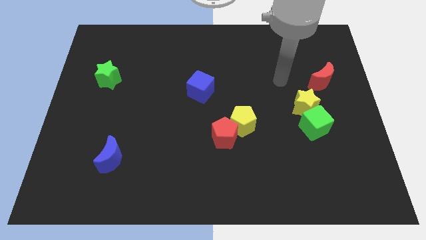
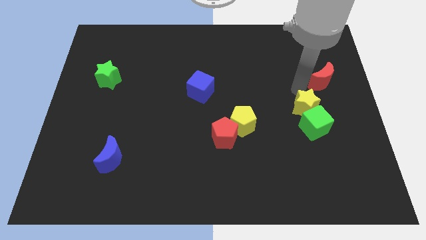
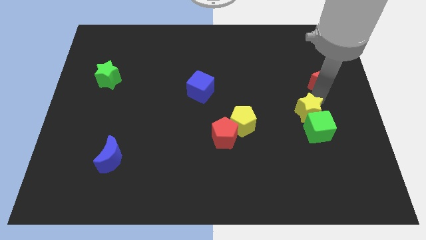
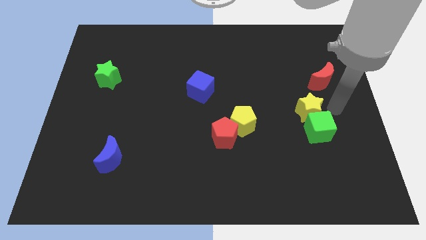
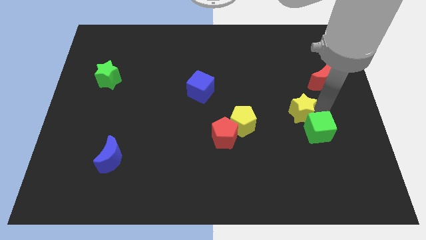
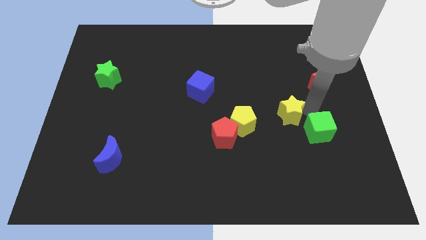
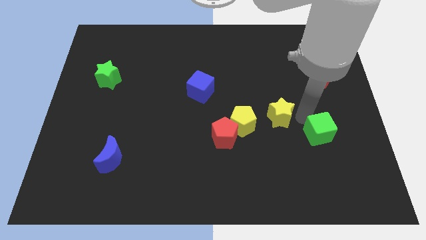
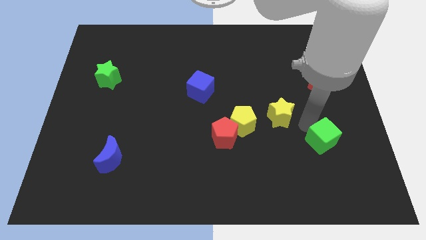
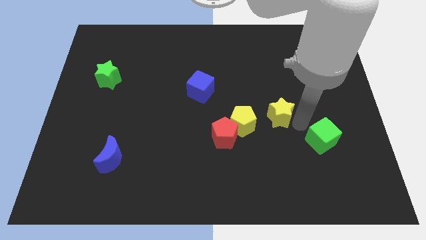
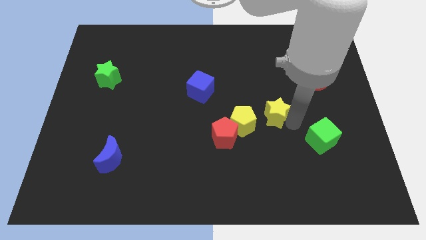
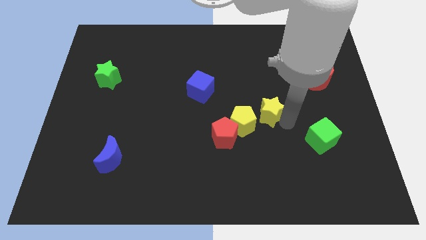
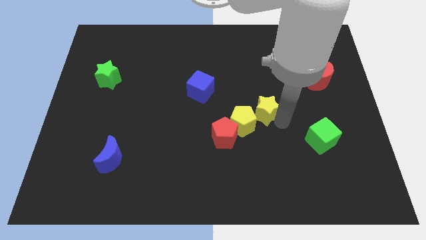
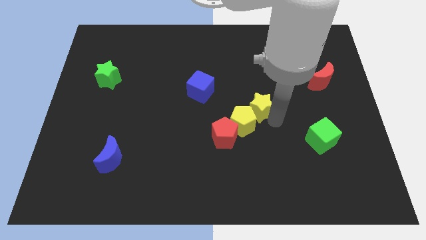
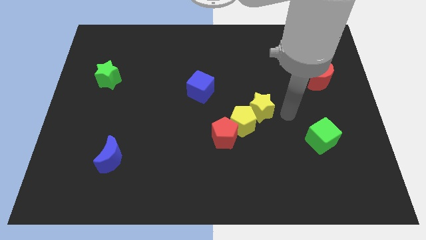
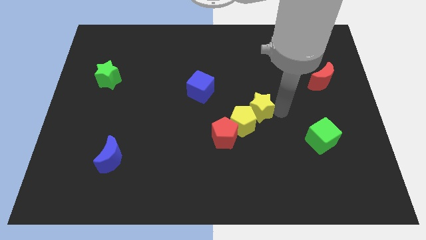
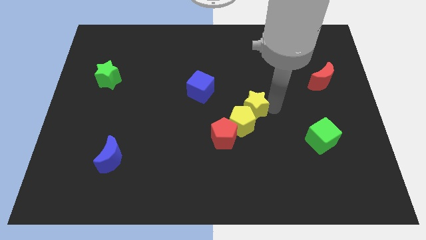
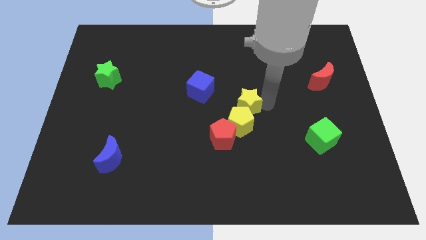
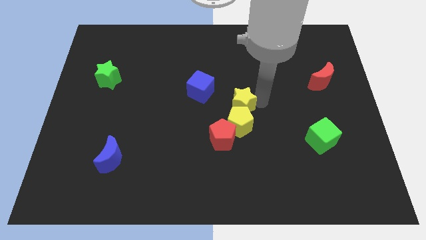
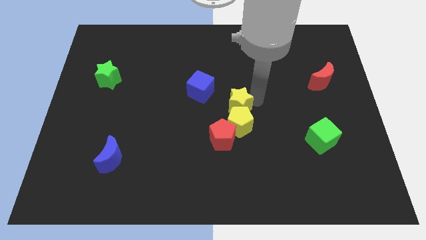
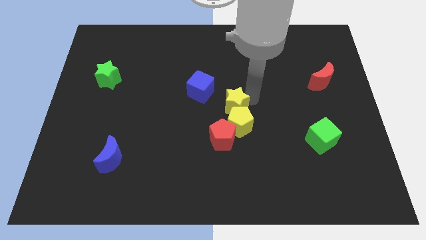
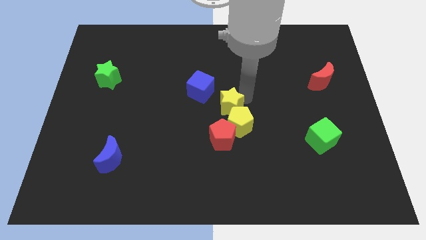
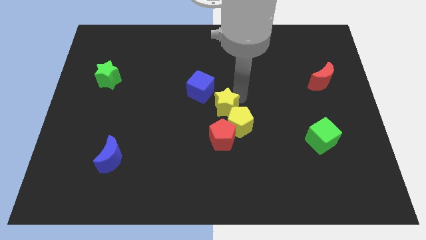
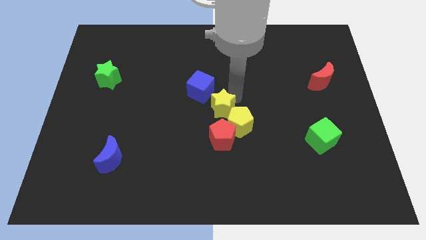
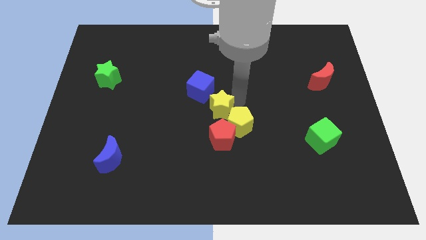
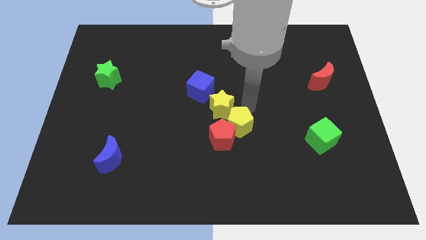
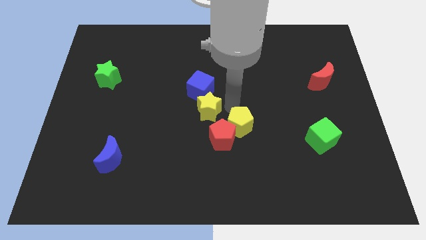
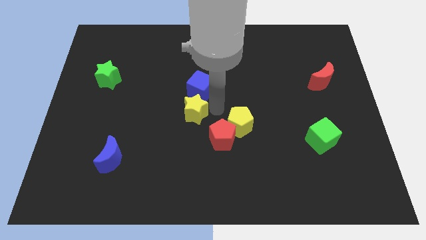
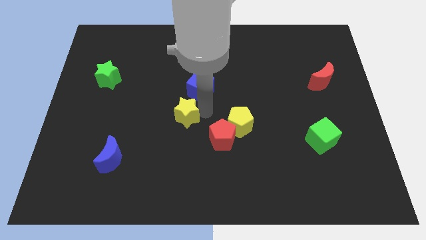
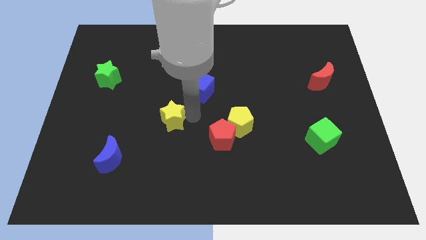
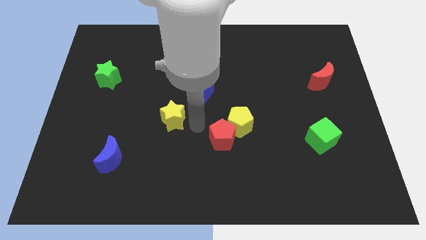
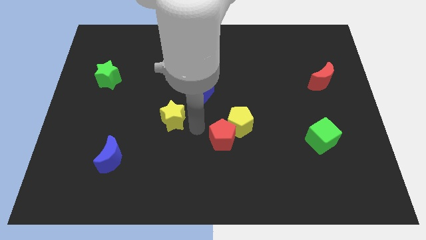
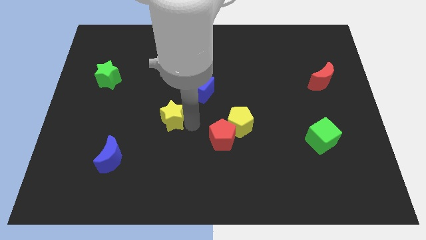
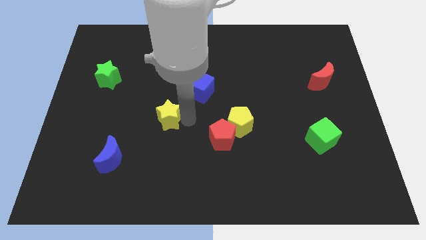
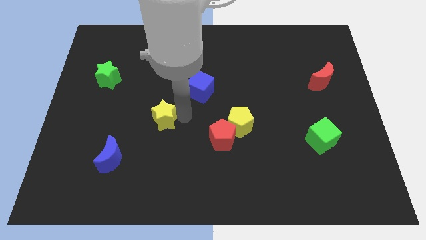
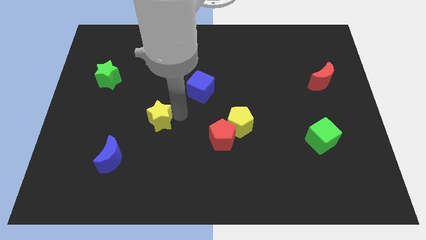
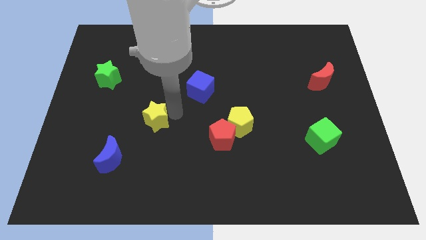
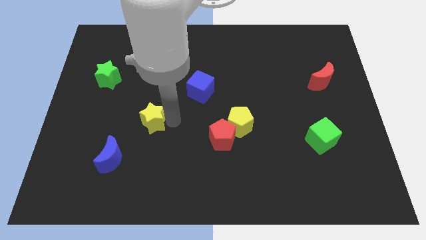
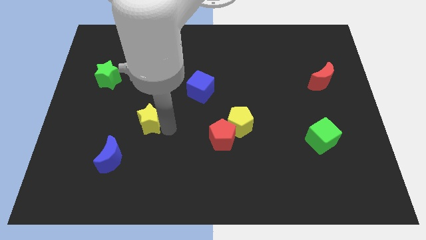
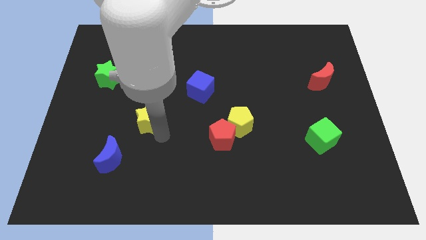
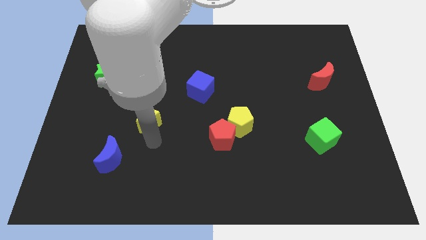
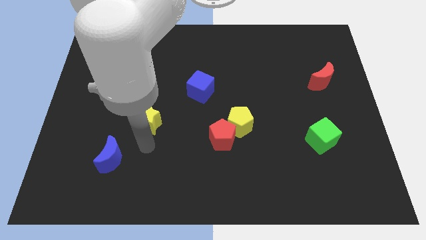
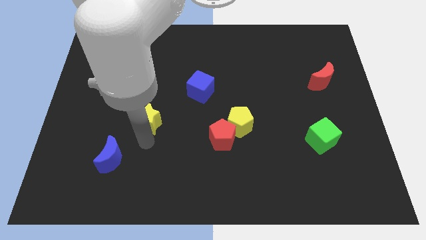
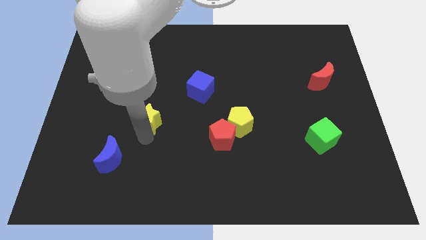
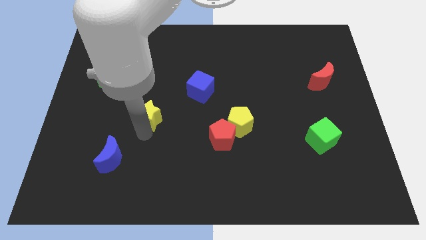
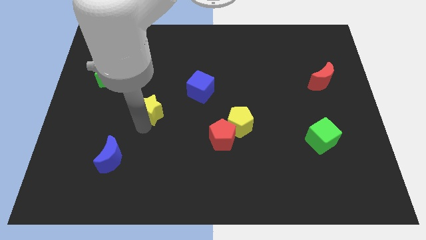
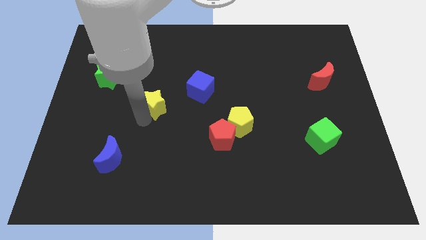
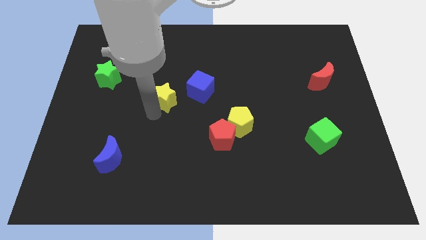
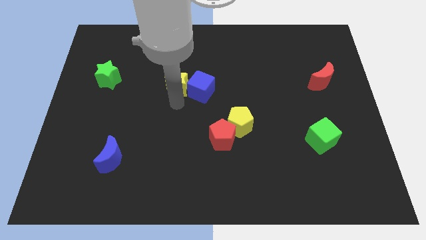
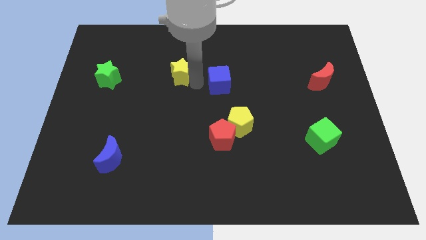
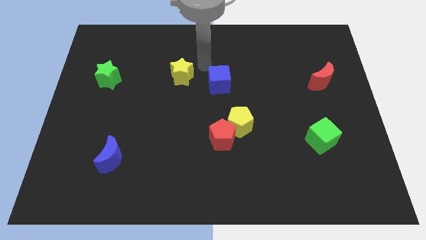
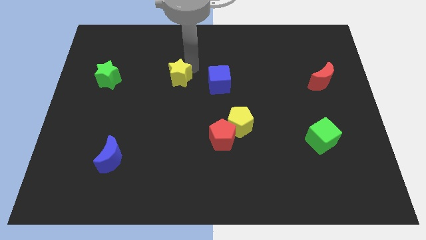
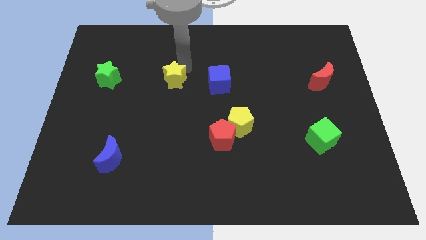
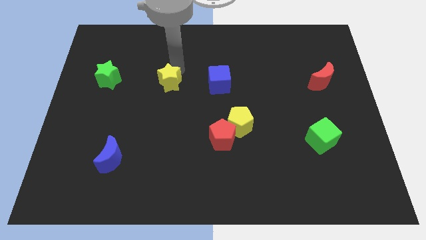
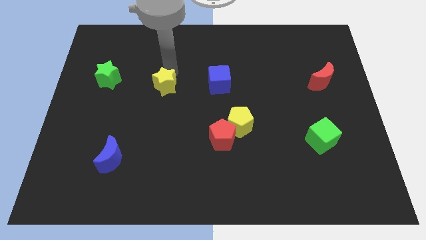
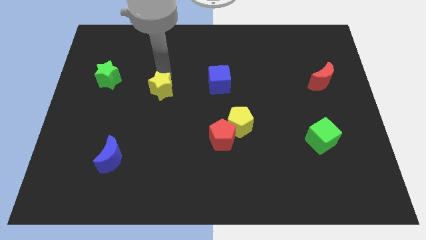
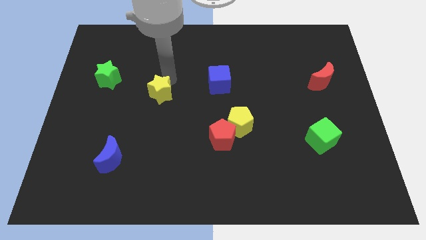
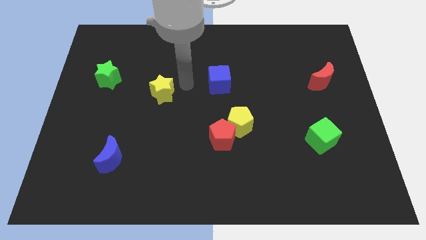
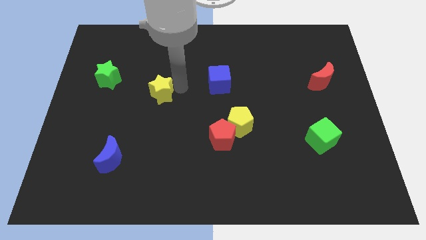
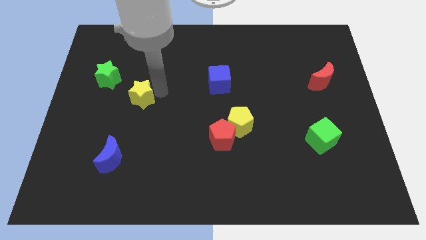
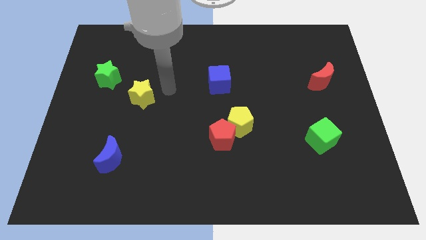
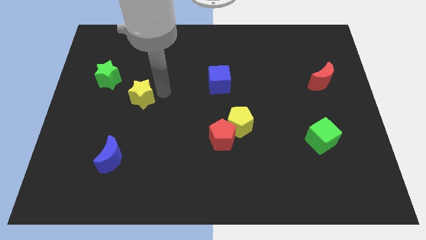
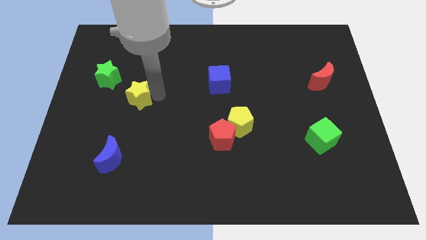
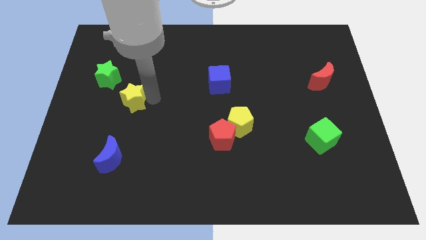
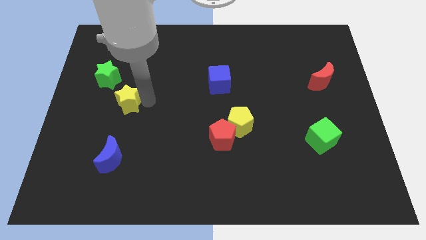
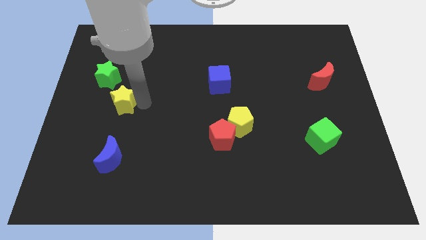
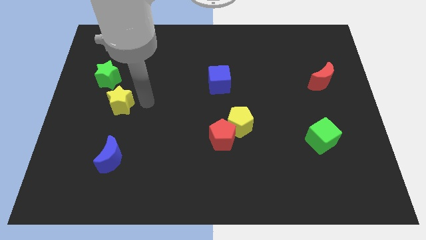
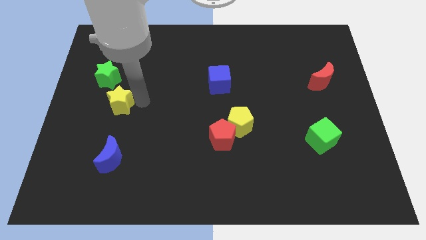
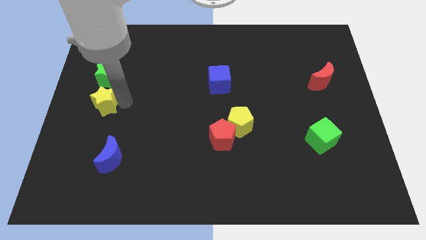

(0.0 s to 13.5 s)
put the yellow star to the center left
